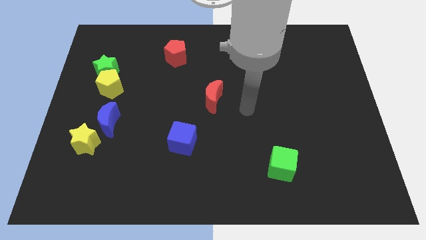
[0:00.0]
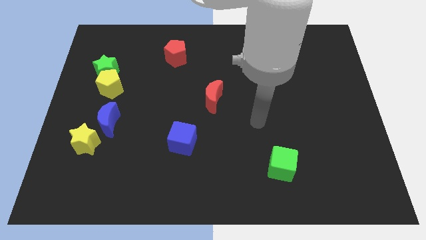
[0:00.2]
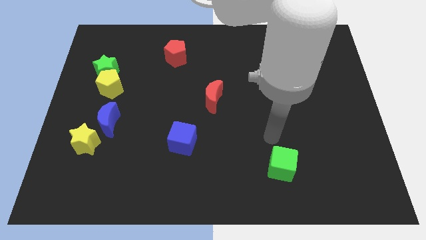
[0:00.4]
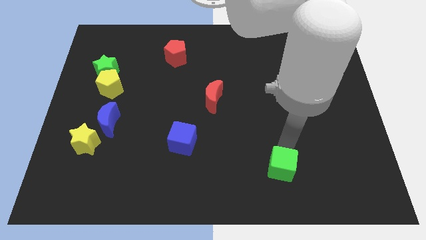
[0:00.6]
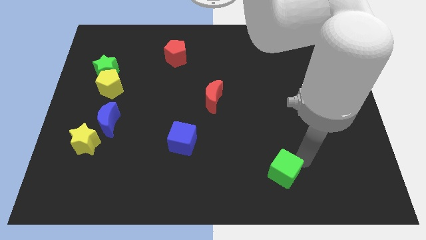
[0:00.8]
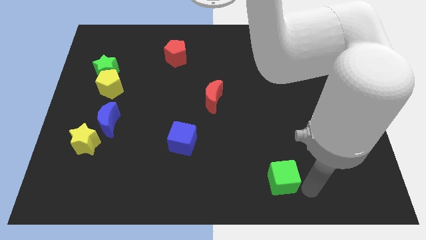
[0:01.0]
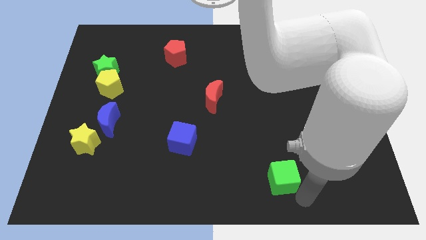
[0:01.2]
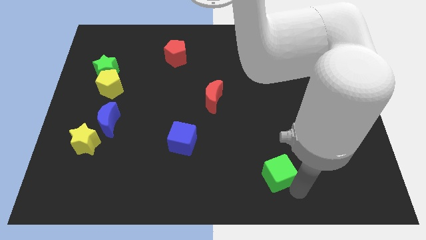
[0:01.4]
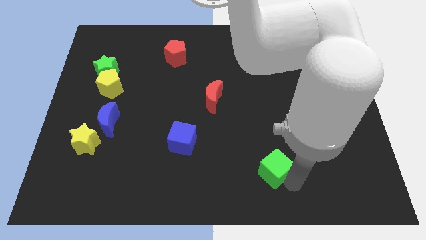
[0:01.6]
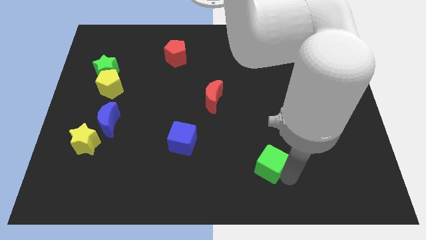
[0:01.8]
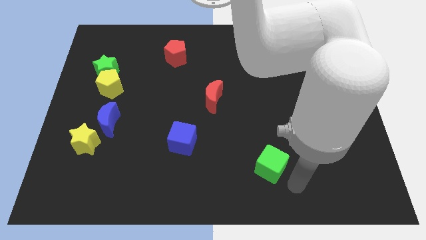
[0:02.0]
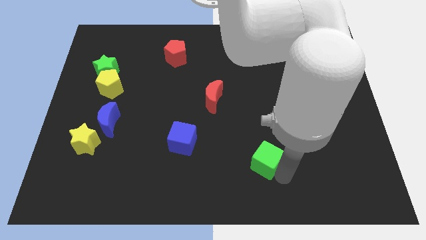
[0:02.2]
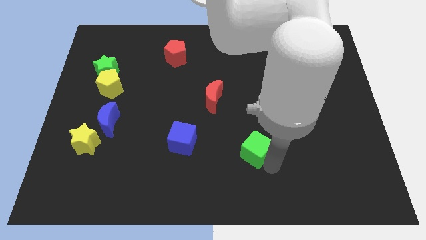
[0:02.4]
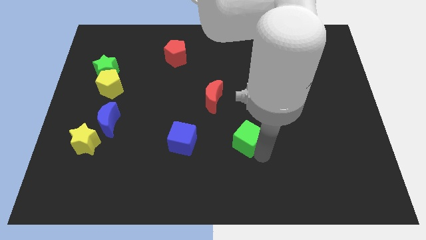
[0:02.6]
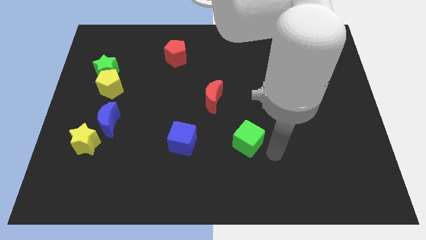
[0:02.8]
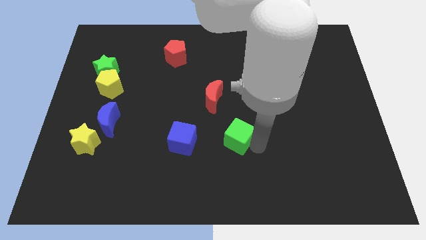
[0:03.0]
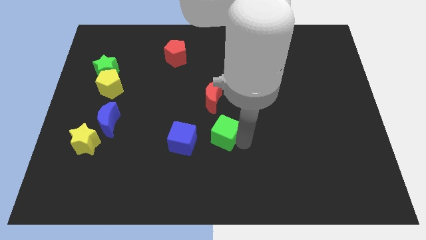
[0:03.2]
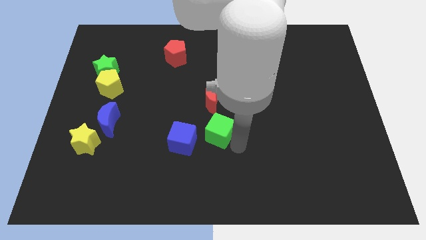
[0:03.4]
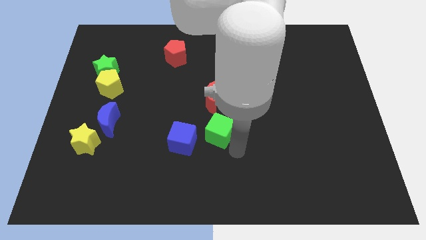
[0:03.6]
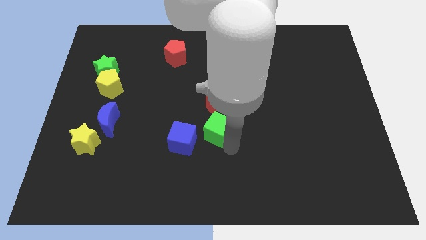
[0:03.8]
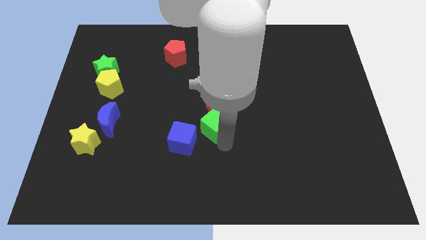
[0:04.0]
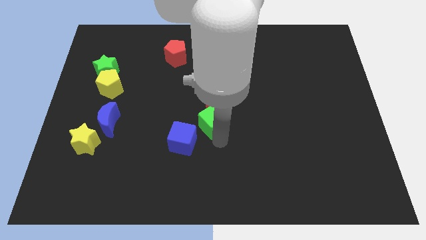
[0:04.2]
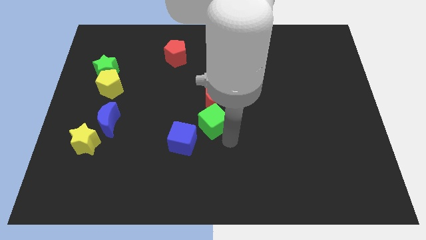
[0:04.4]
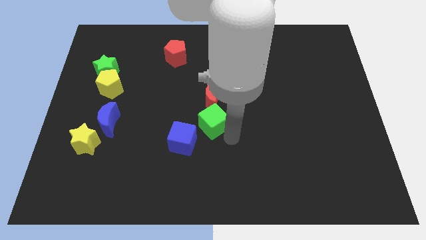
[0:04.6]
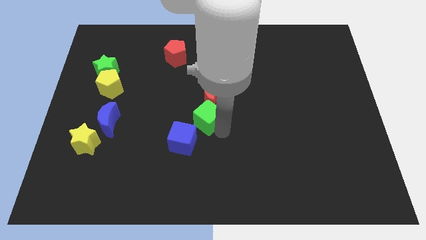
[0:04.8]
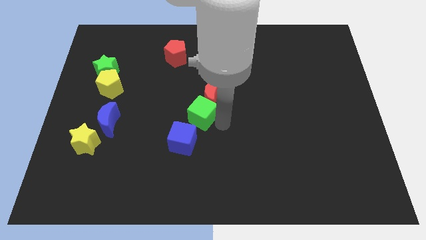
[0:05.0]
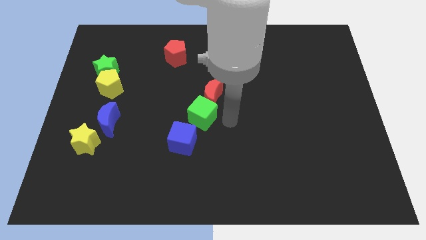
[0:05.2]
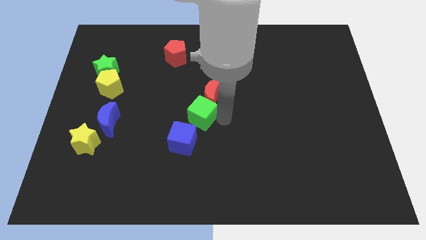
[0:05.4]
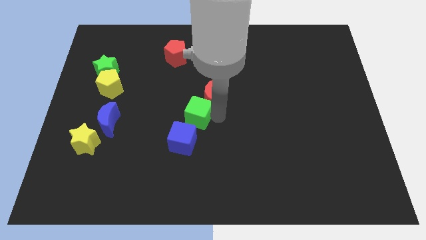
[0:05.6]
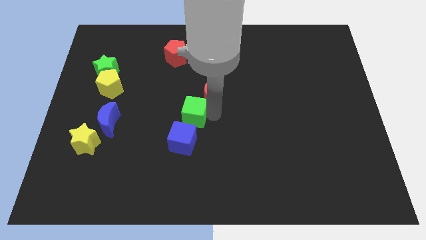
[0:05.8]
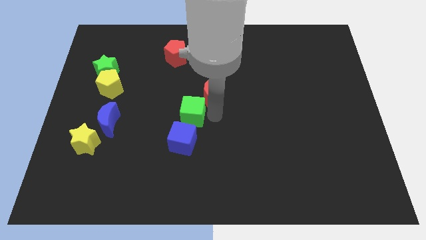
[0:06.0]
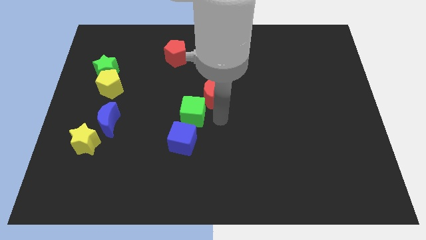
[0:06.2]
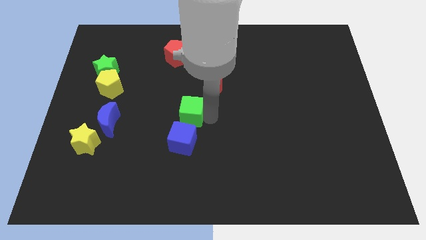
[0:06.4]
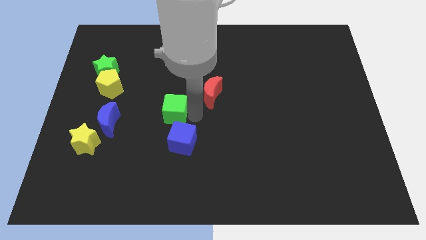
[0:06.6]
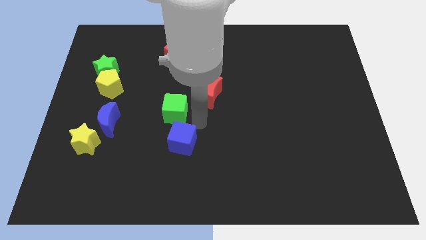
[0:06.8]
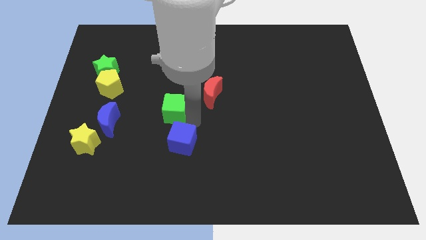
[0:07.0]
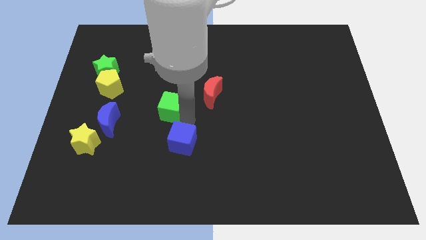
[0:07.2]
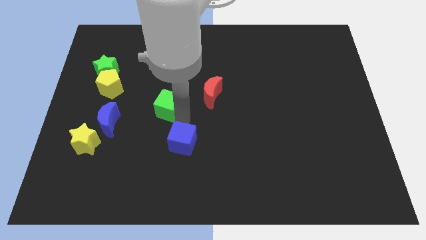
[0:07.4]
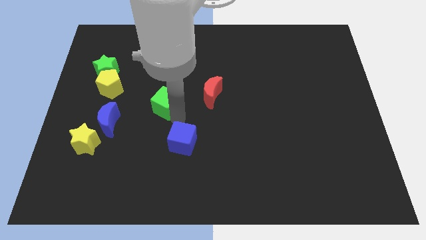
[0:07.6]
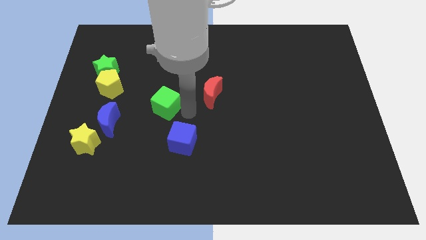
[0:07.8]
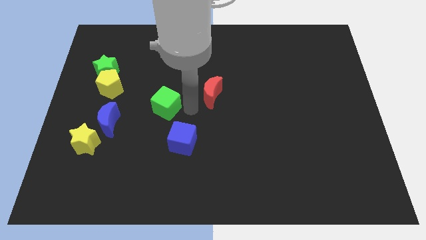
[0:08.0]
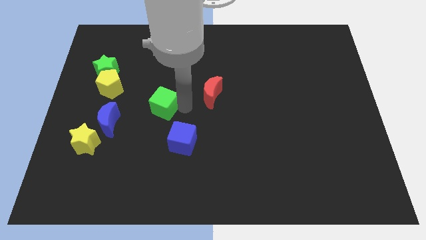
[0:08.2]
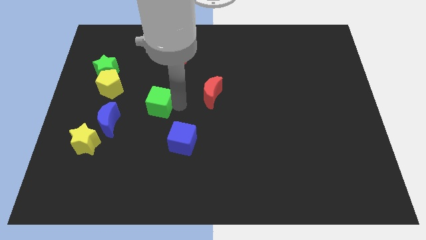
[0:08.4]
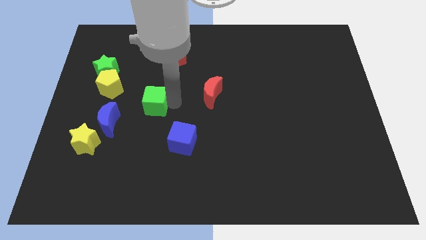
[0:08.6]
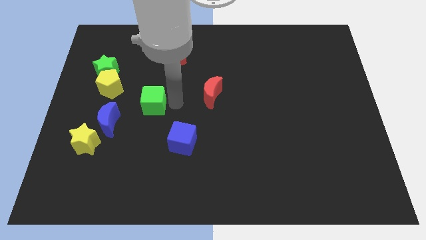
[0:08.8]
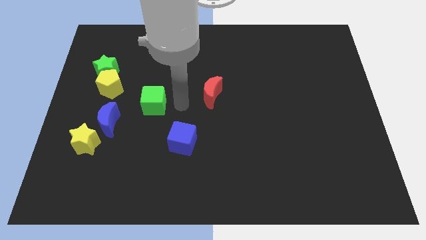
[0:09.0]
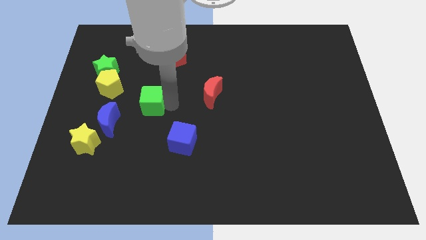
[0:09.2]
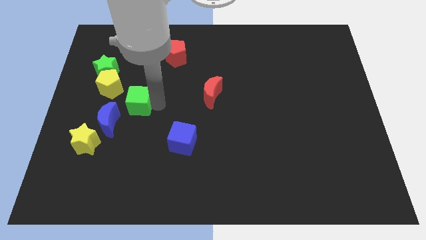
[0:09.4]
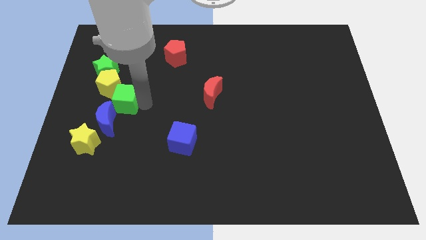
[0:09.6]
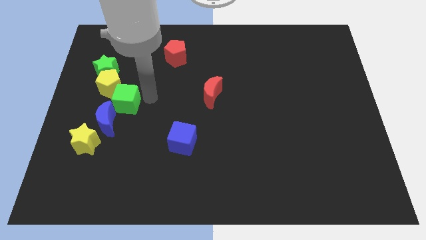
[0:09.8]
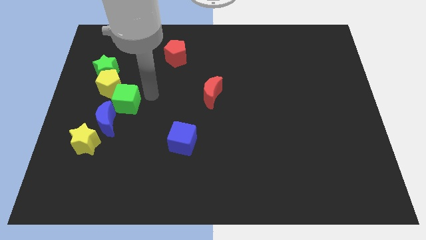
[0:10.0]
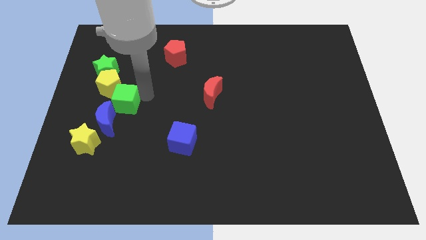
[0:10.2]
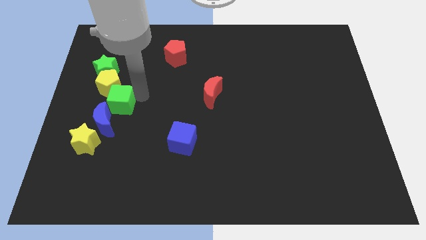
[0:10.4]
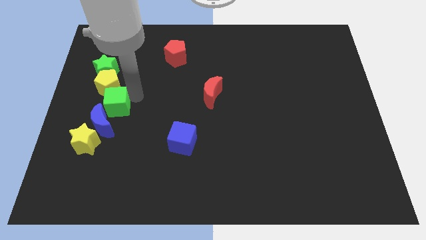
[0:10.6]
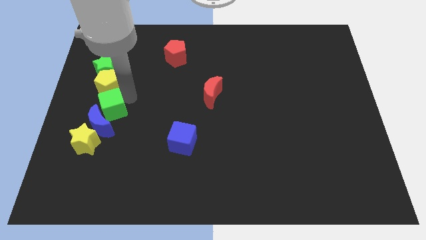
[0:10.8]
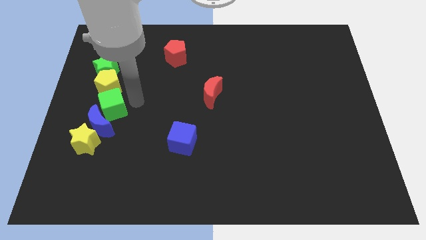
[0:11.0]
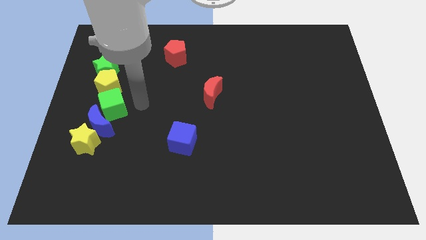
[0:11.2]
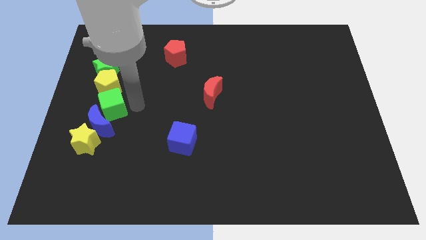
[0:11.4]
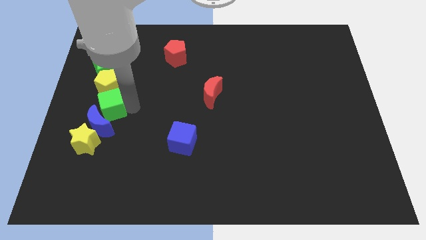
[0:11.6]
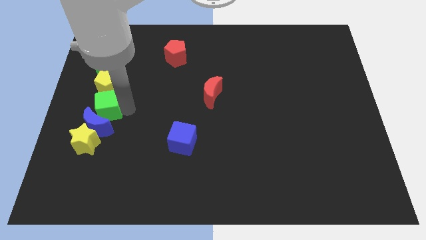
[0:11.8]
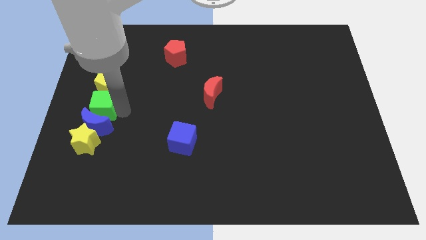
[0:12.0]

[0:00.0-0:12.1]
slide the green cube to the left side of the board
